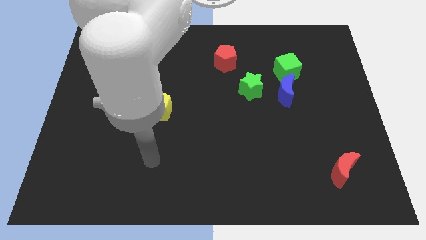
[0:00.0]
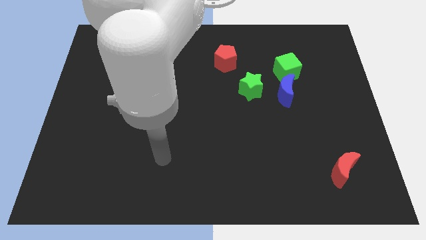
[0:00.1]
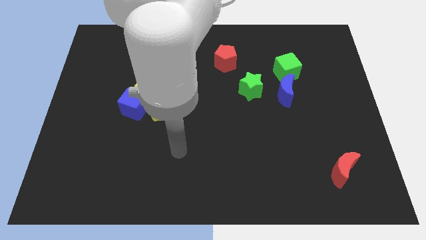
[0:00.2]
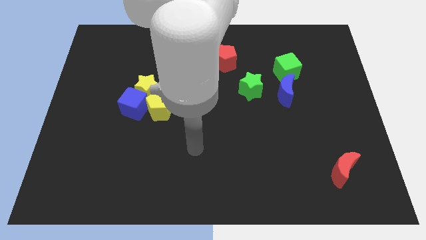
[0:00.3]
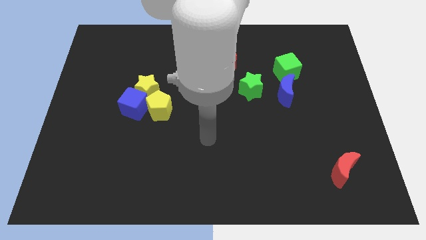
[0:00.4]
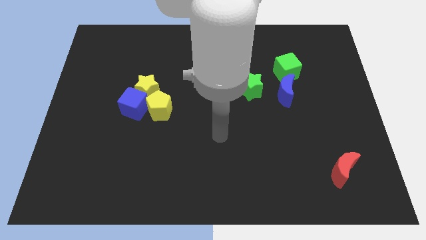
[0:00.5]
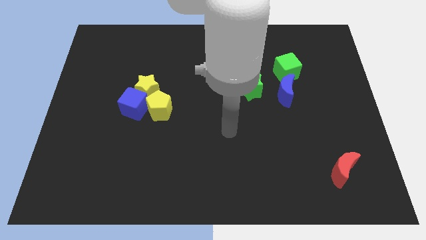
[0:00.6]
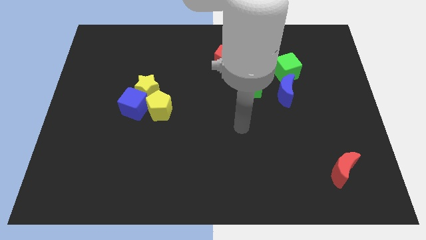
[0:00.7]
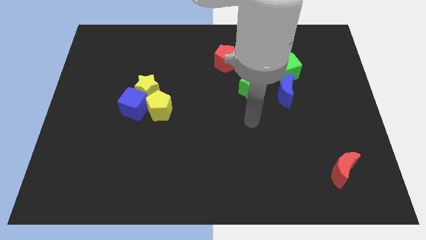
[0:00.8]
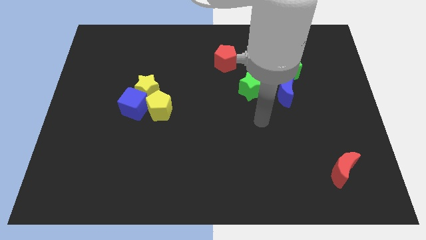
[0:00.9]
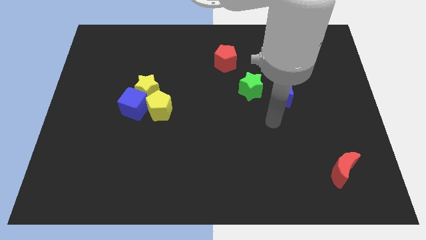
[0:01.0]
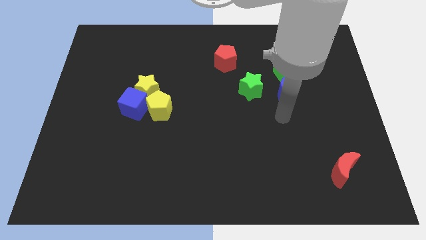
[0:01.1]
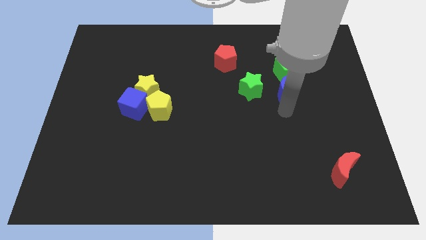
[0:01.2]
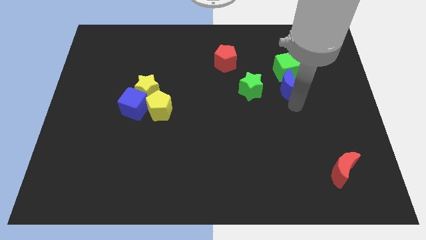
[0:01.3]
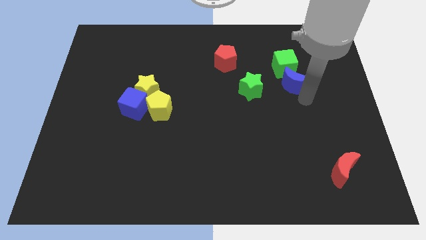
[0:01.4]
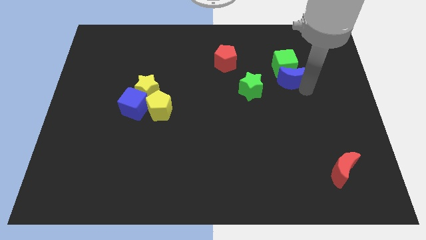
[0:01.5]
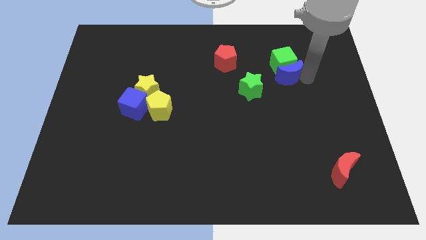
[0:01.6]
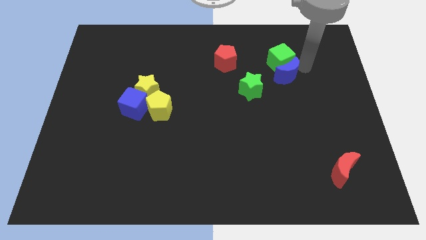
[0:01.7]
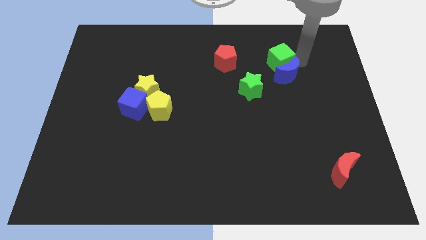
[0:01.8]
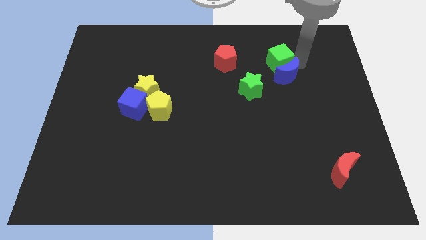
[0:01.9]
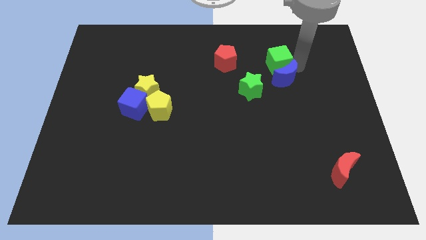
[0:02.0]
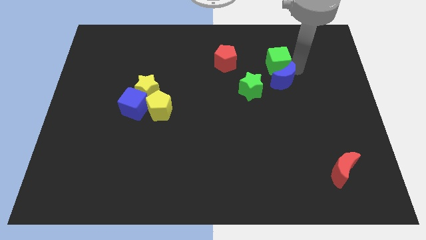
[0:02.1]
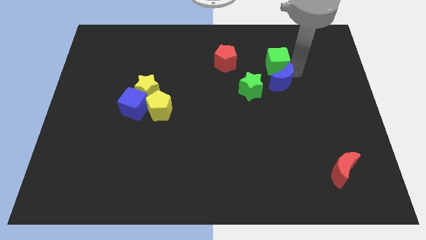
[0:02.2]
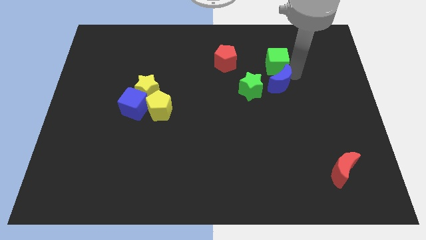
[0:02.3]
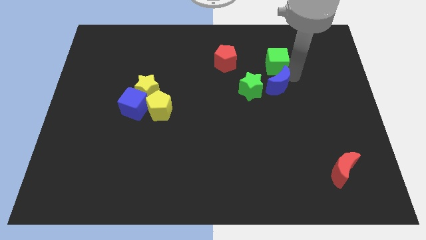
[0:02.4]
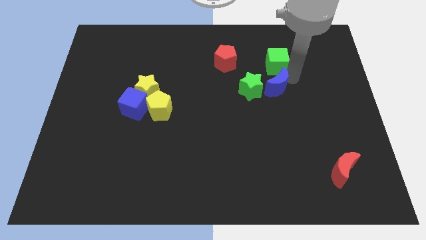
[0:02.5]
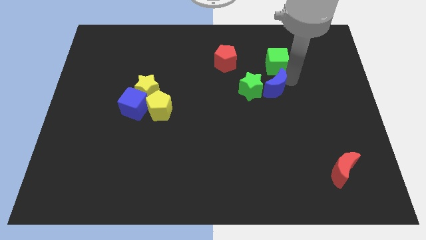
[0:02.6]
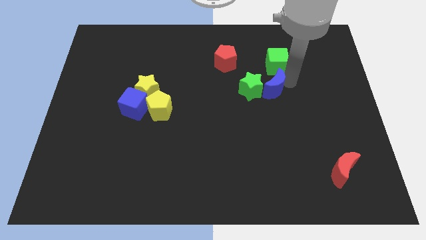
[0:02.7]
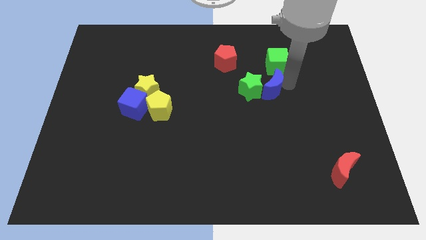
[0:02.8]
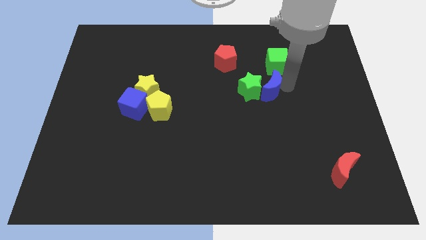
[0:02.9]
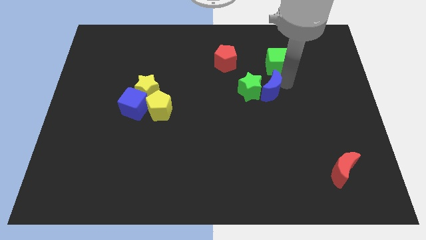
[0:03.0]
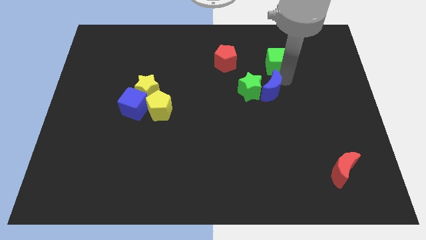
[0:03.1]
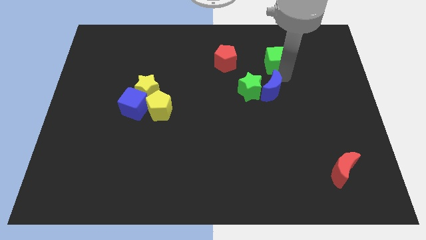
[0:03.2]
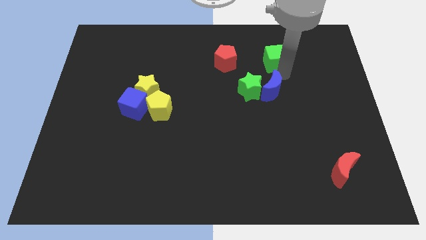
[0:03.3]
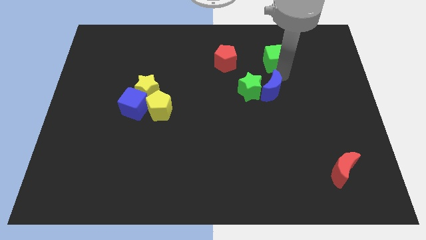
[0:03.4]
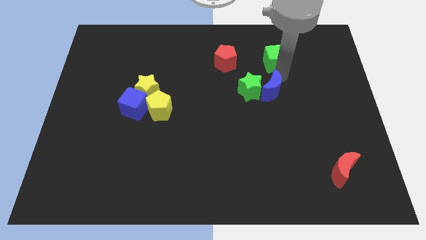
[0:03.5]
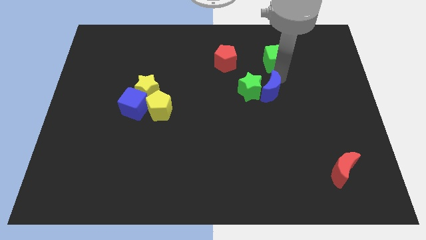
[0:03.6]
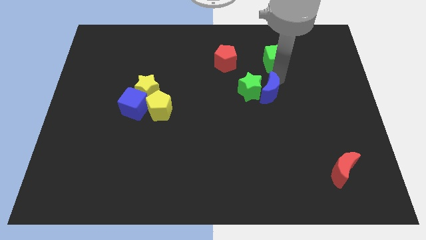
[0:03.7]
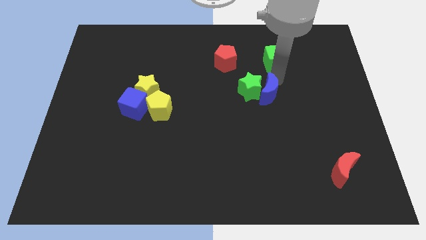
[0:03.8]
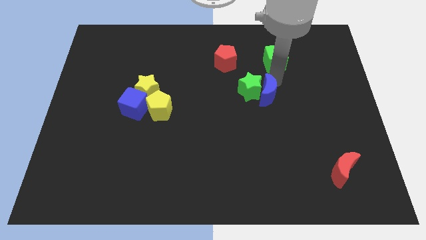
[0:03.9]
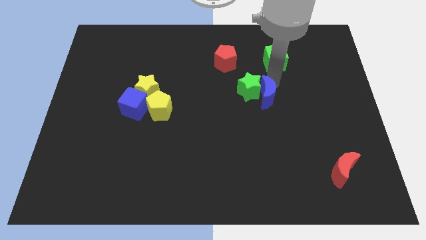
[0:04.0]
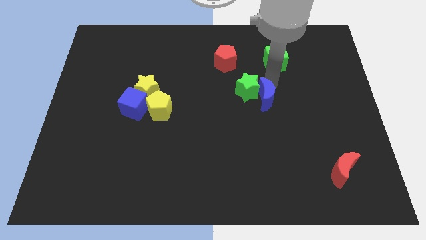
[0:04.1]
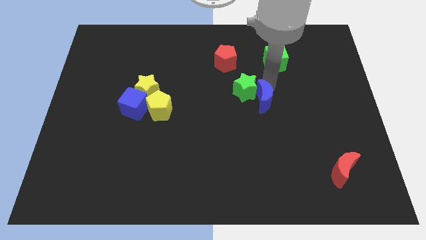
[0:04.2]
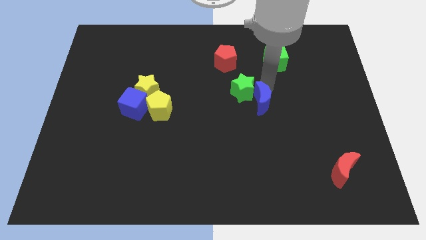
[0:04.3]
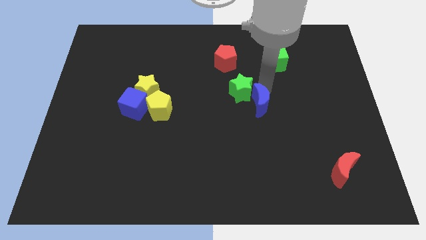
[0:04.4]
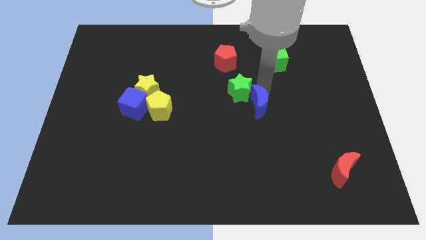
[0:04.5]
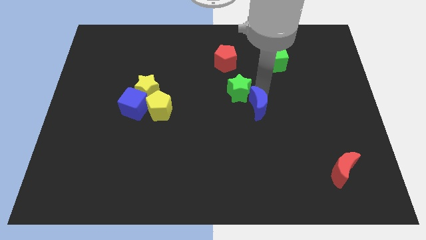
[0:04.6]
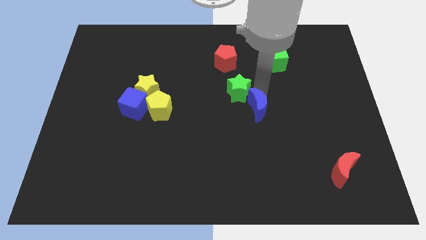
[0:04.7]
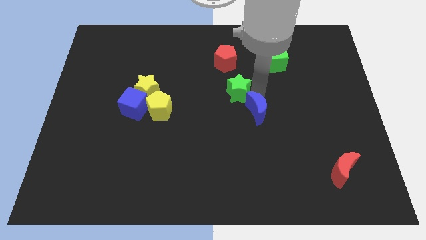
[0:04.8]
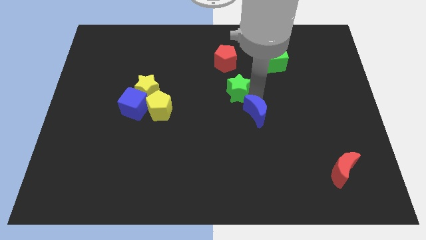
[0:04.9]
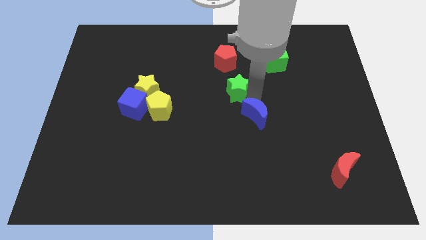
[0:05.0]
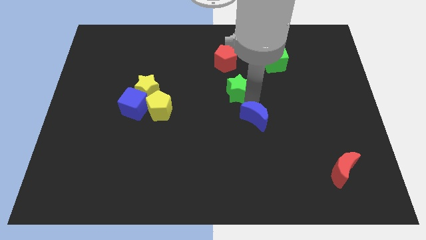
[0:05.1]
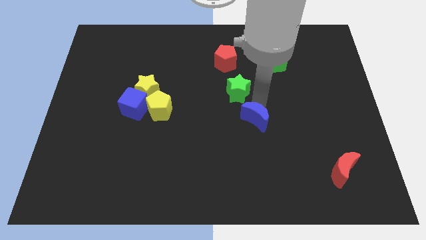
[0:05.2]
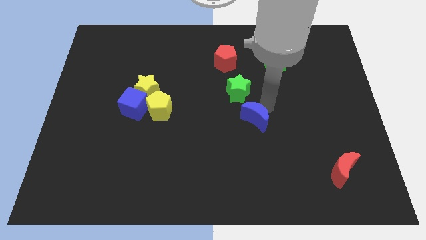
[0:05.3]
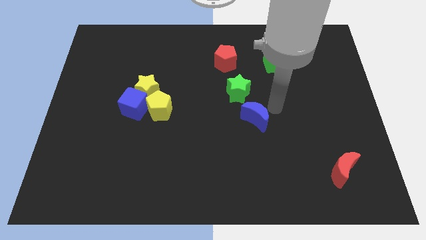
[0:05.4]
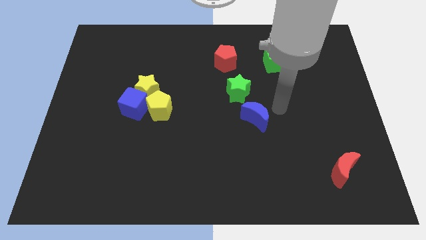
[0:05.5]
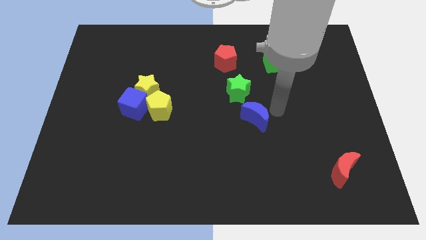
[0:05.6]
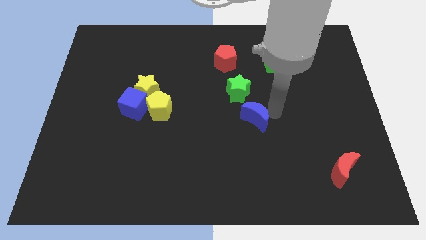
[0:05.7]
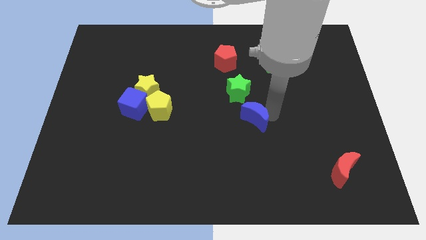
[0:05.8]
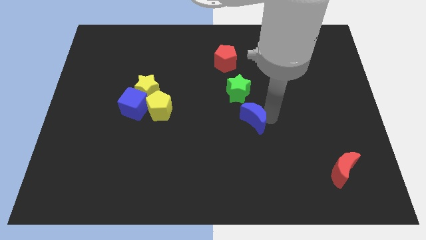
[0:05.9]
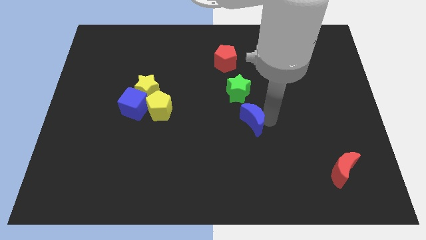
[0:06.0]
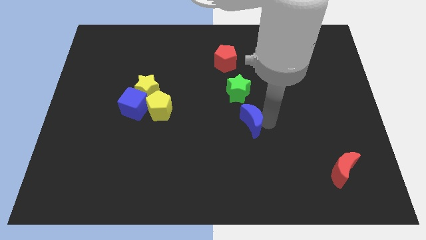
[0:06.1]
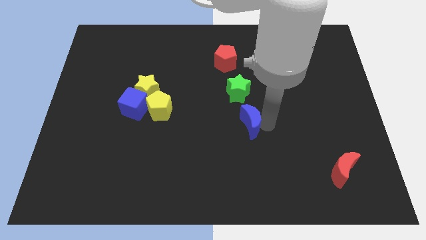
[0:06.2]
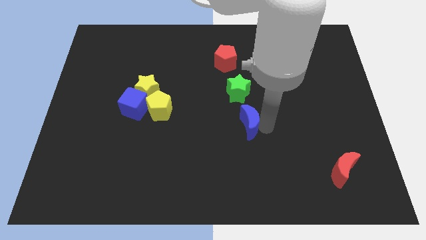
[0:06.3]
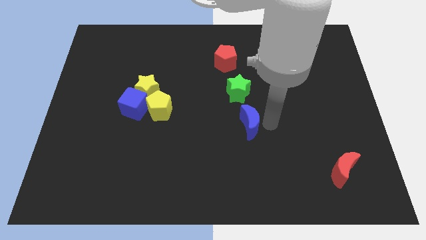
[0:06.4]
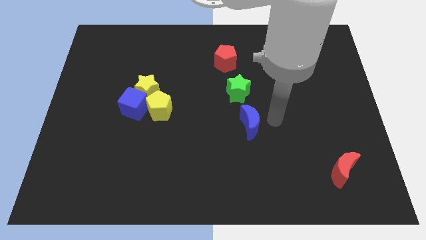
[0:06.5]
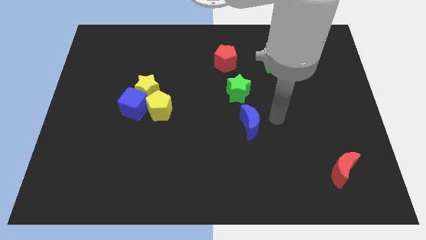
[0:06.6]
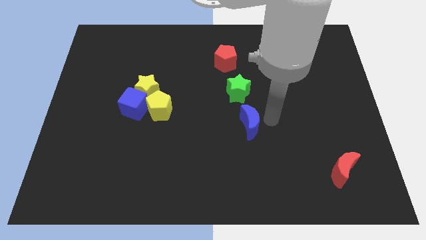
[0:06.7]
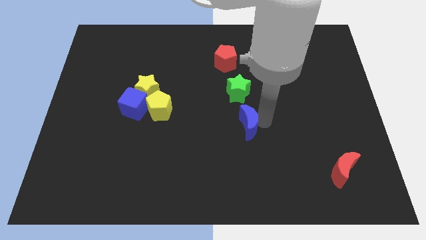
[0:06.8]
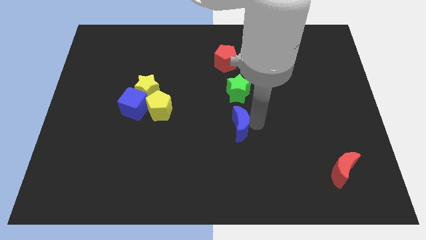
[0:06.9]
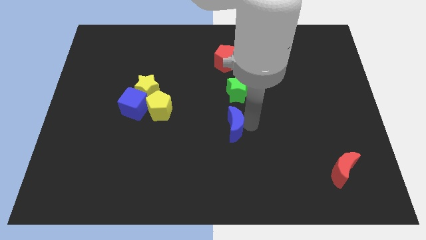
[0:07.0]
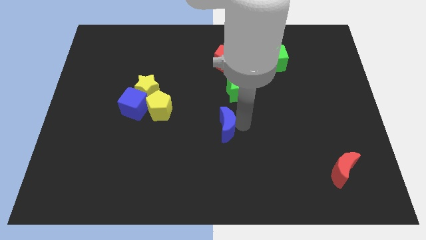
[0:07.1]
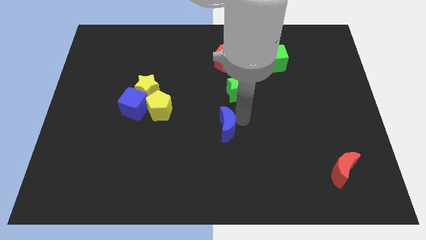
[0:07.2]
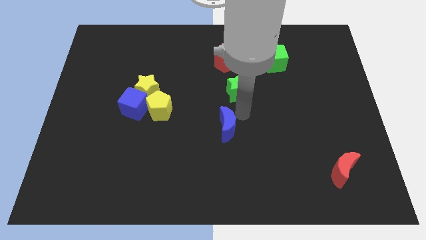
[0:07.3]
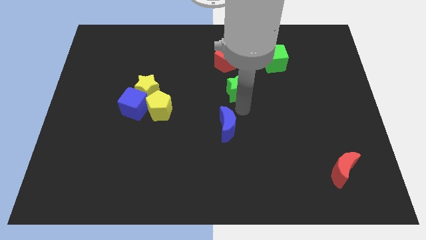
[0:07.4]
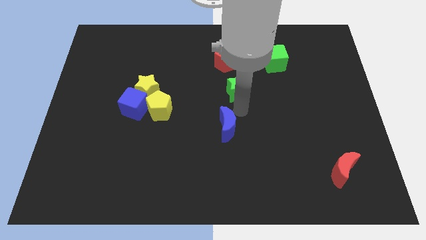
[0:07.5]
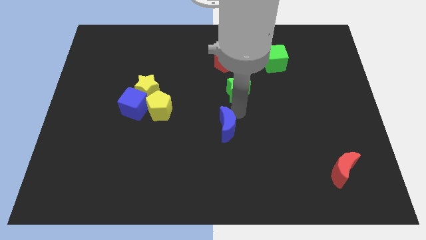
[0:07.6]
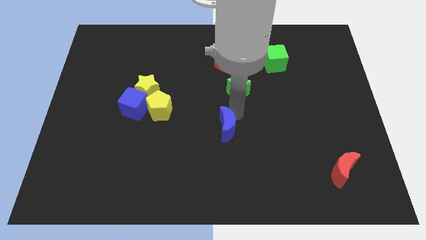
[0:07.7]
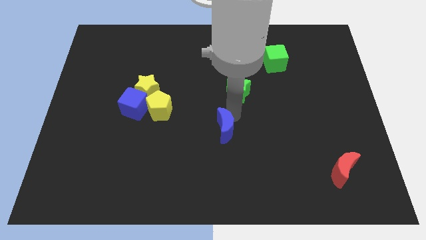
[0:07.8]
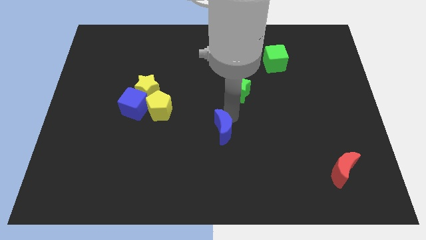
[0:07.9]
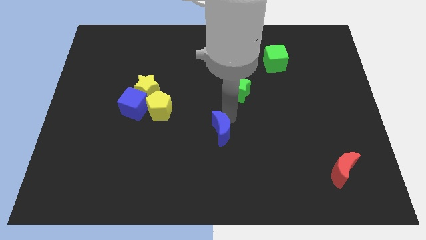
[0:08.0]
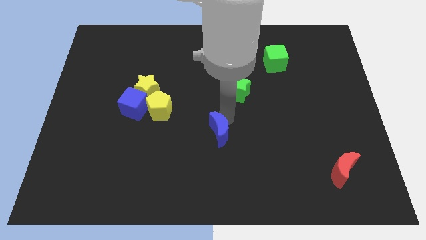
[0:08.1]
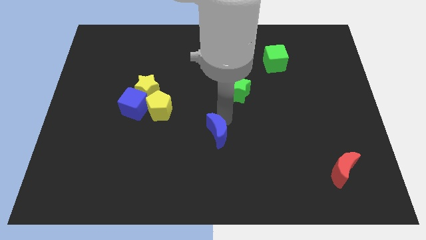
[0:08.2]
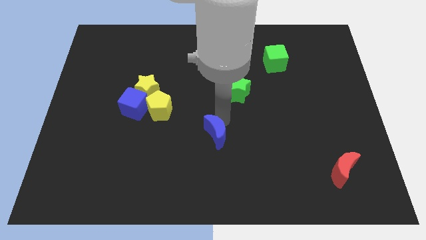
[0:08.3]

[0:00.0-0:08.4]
push the blue moon diagonally down and to the left
